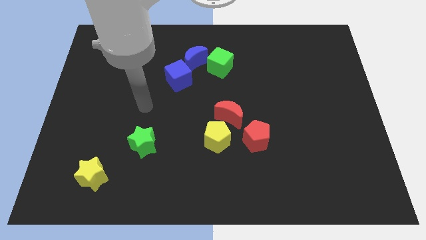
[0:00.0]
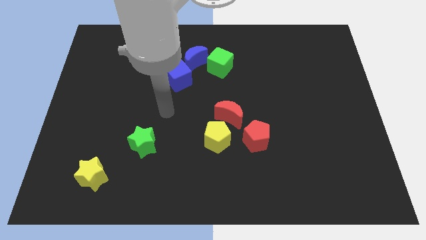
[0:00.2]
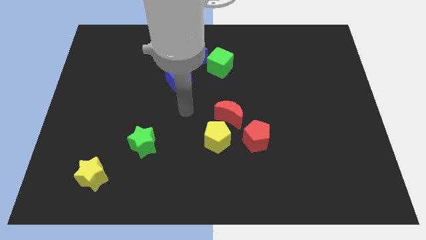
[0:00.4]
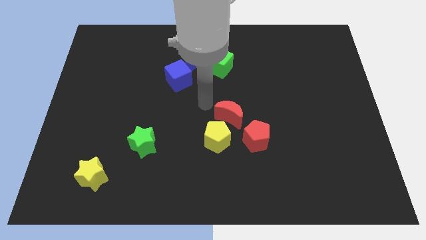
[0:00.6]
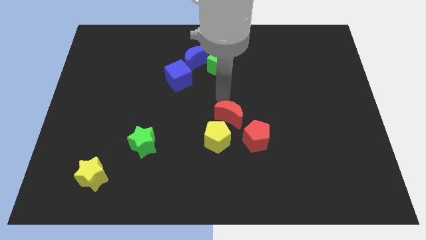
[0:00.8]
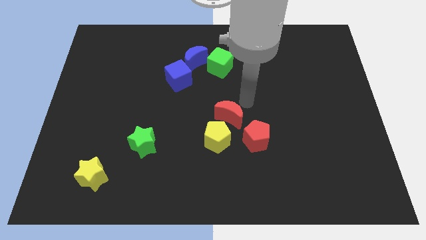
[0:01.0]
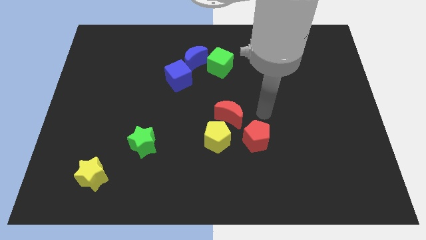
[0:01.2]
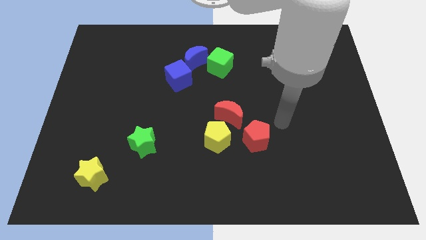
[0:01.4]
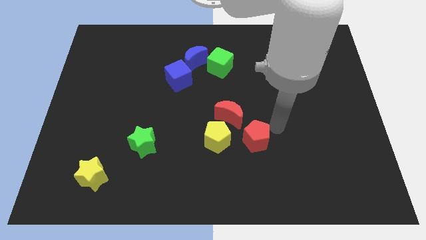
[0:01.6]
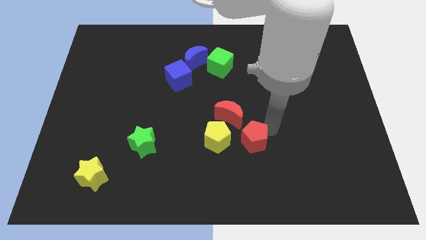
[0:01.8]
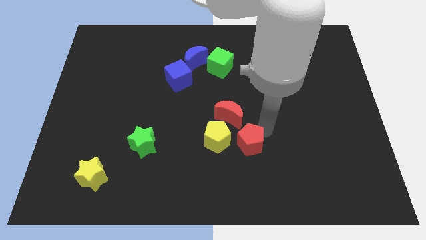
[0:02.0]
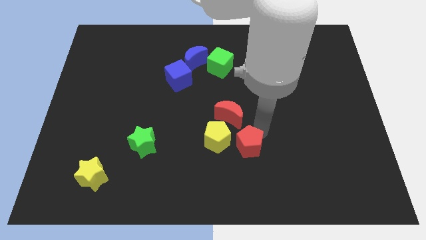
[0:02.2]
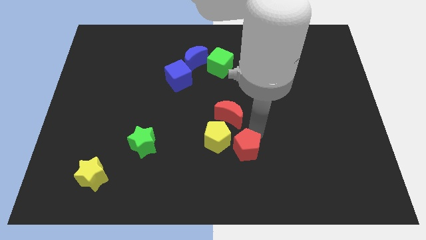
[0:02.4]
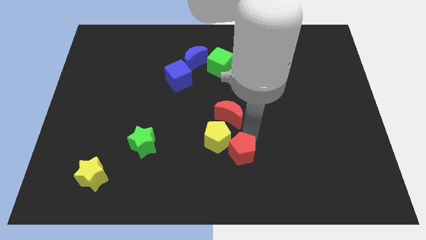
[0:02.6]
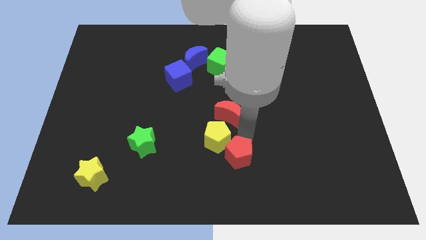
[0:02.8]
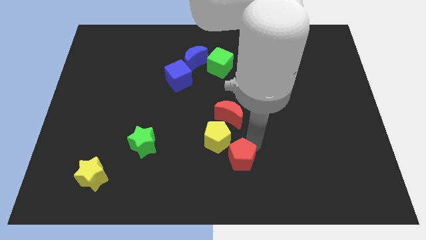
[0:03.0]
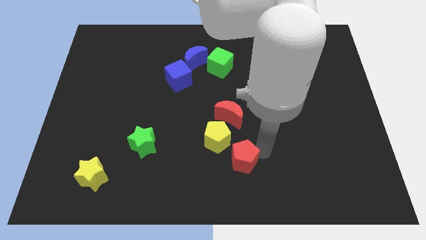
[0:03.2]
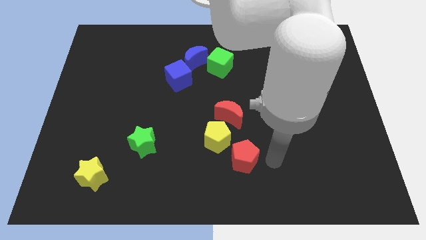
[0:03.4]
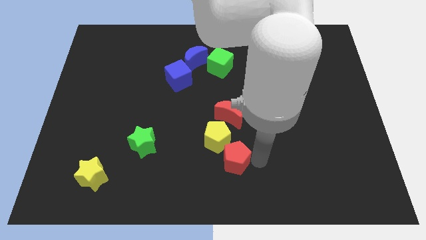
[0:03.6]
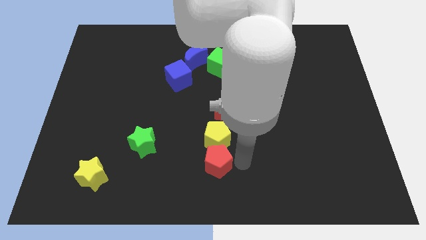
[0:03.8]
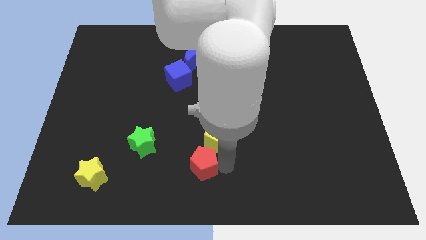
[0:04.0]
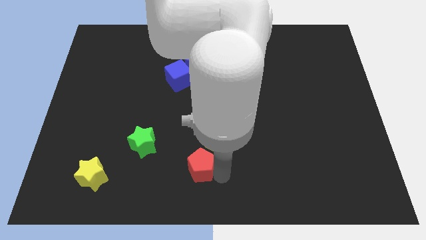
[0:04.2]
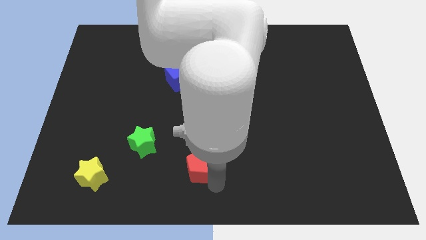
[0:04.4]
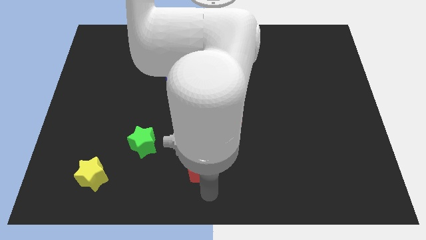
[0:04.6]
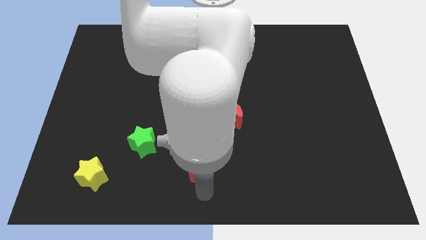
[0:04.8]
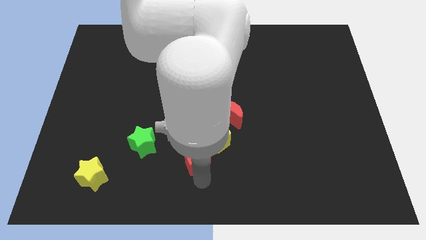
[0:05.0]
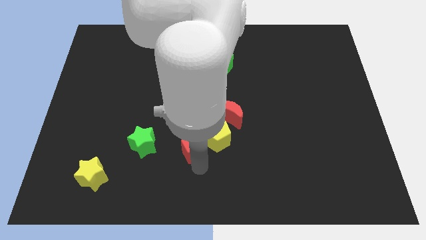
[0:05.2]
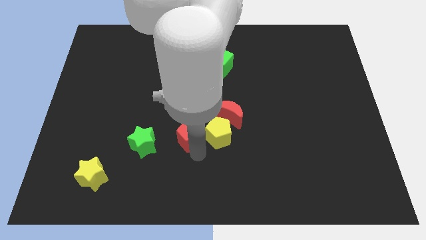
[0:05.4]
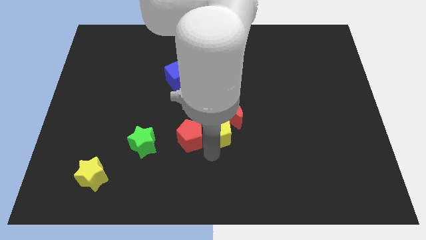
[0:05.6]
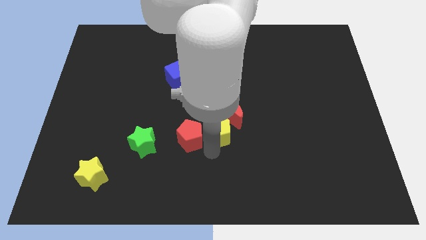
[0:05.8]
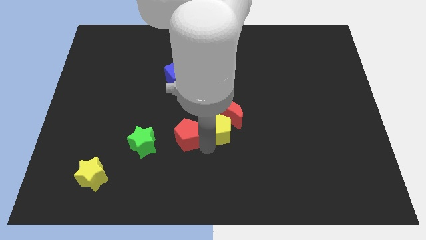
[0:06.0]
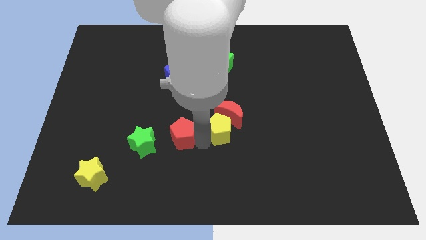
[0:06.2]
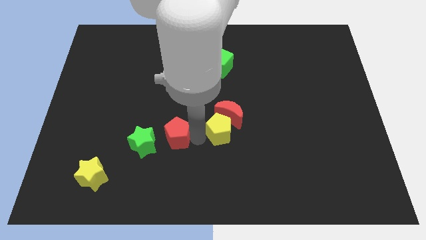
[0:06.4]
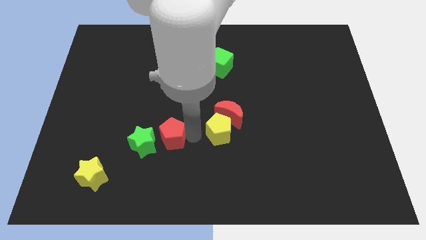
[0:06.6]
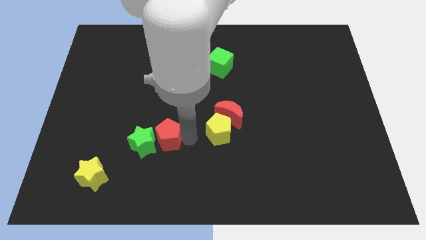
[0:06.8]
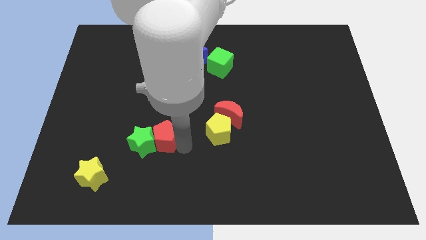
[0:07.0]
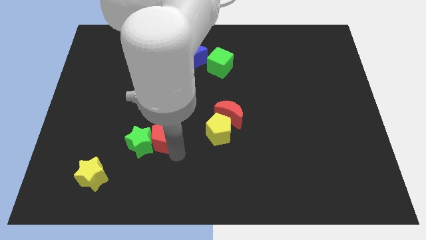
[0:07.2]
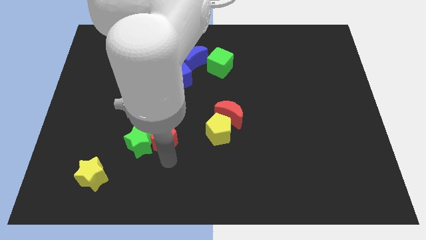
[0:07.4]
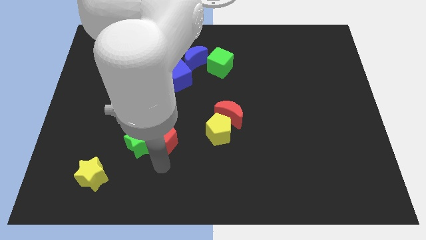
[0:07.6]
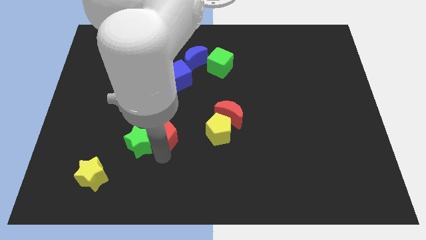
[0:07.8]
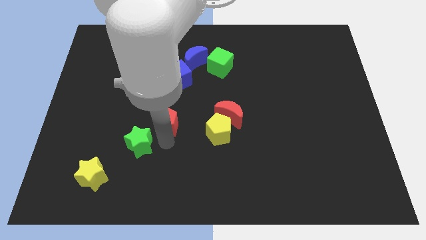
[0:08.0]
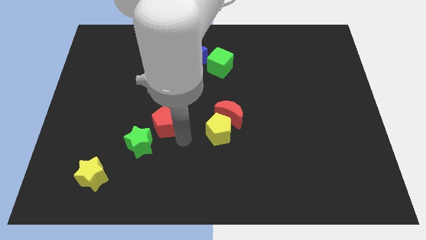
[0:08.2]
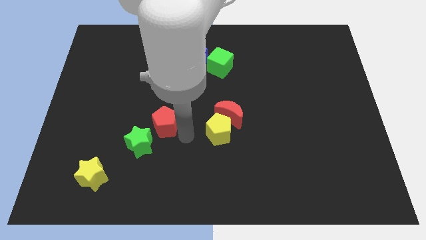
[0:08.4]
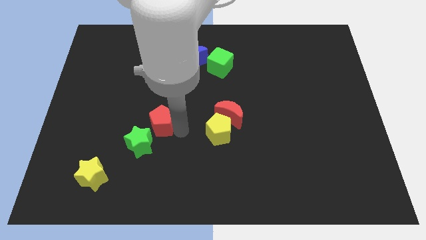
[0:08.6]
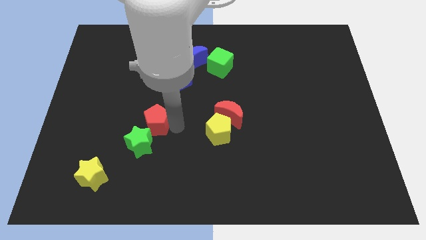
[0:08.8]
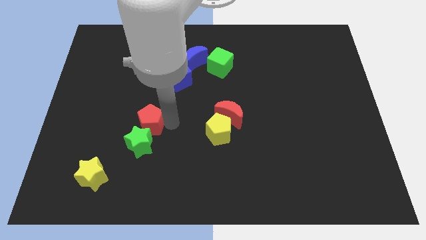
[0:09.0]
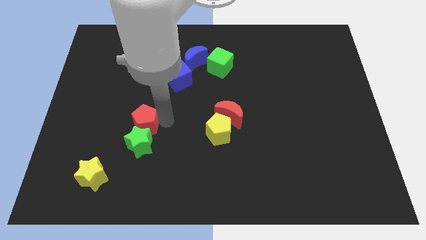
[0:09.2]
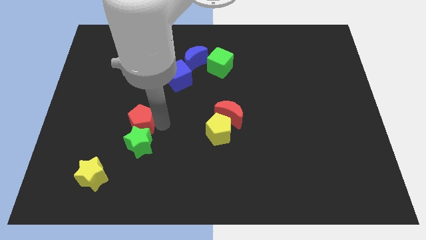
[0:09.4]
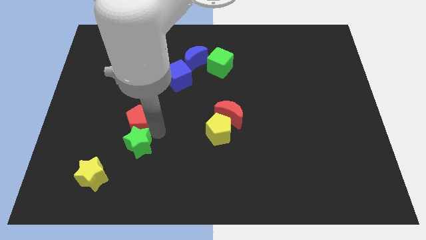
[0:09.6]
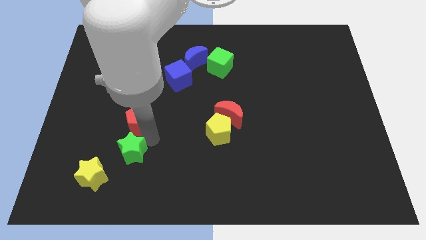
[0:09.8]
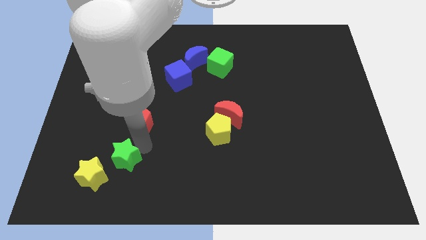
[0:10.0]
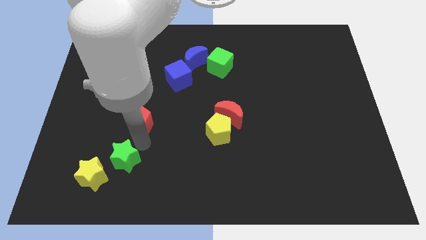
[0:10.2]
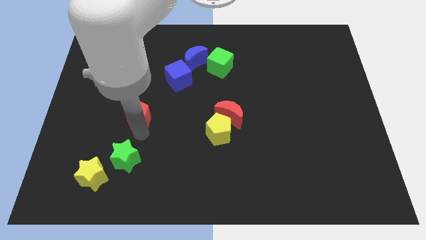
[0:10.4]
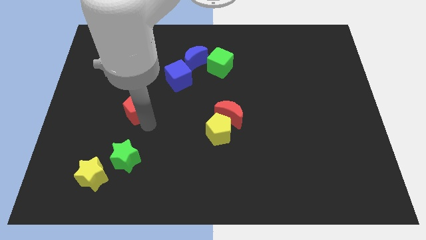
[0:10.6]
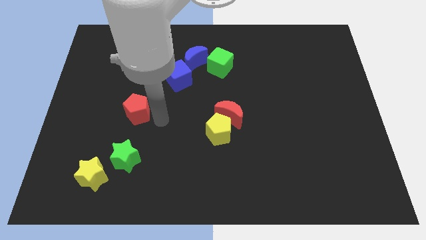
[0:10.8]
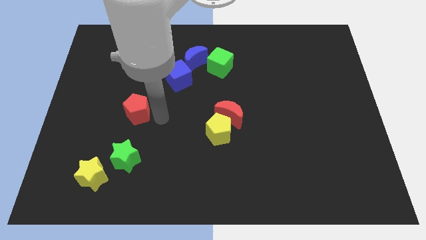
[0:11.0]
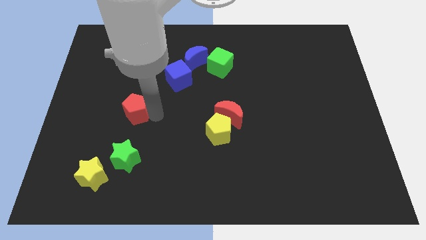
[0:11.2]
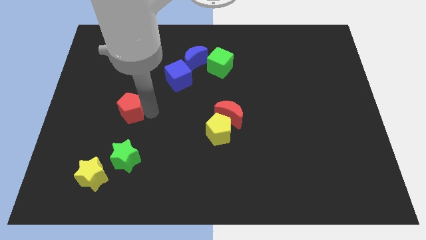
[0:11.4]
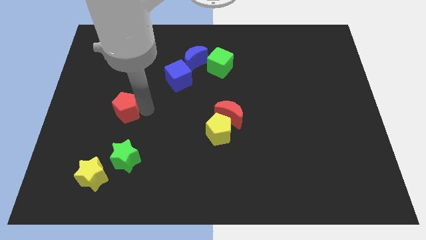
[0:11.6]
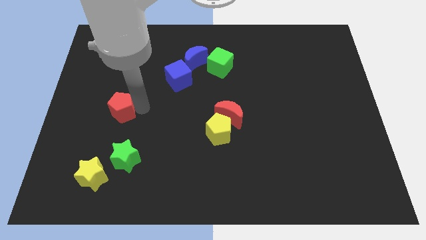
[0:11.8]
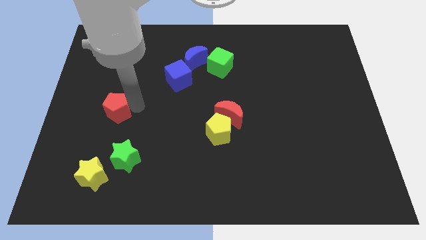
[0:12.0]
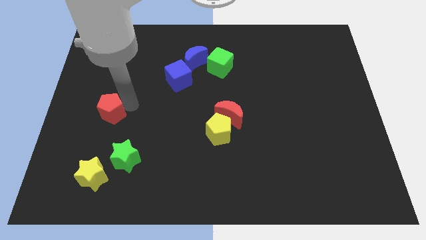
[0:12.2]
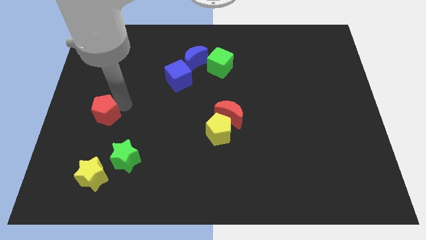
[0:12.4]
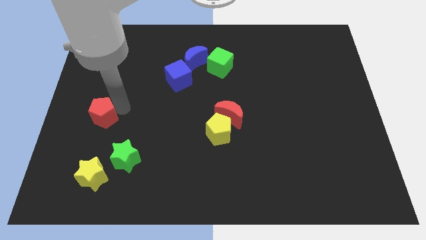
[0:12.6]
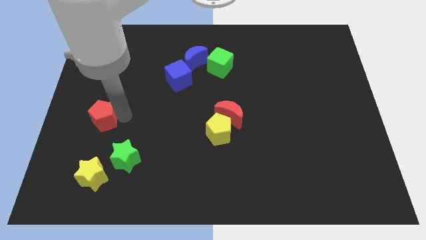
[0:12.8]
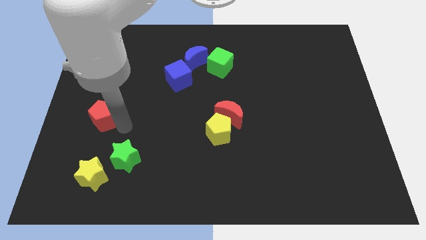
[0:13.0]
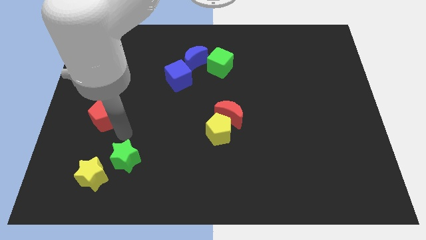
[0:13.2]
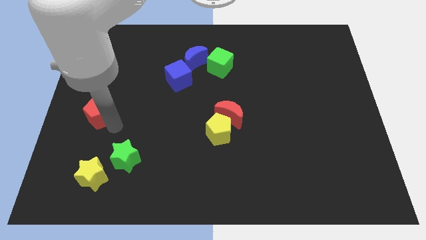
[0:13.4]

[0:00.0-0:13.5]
push the red pentagon to the left side of the board

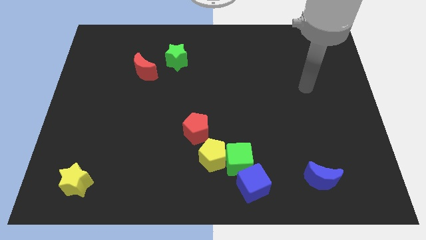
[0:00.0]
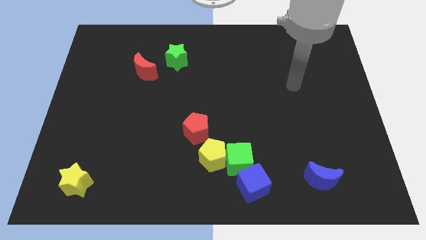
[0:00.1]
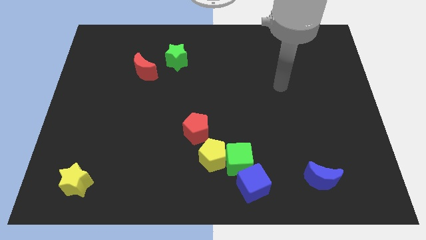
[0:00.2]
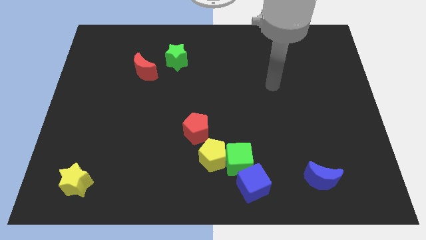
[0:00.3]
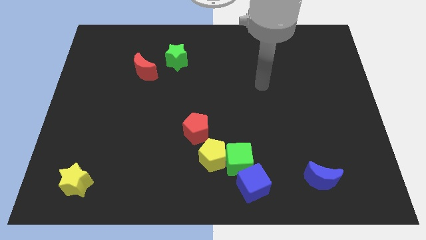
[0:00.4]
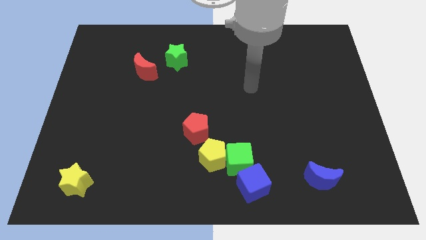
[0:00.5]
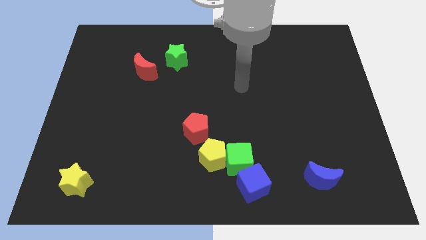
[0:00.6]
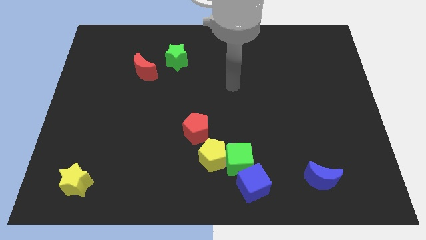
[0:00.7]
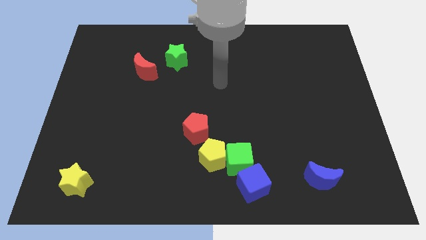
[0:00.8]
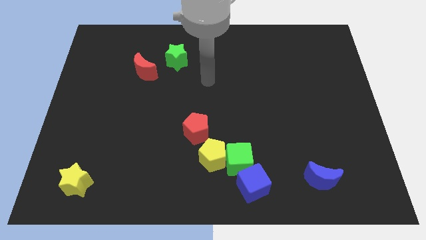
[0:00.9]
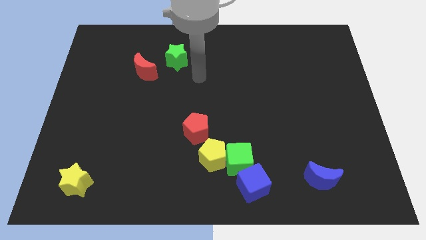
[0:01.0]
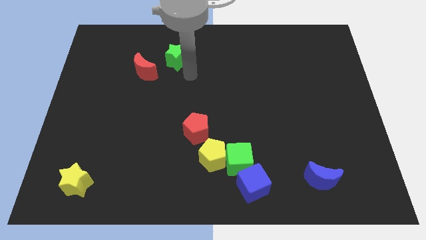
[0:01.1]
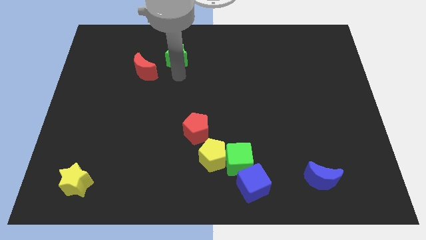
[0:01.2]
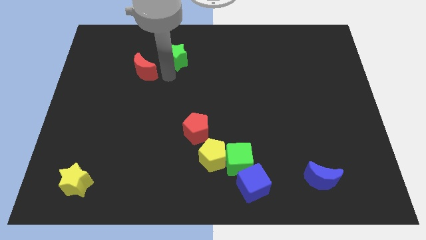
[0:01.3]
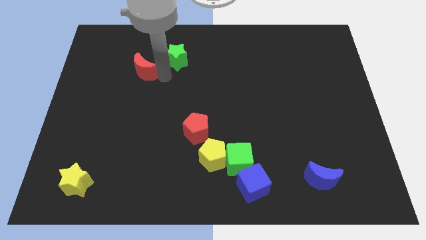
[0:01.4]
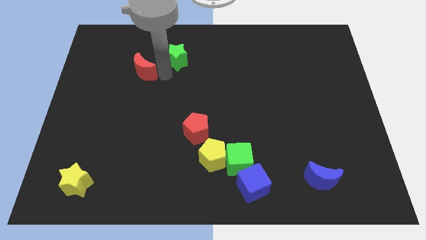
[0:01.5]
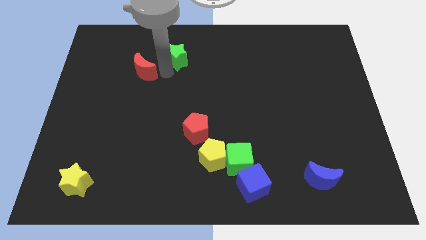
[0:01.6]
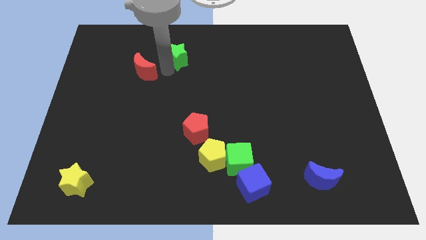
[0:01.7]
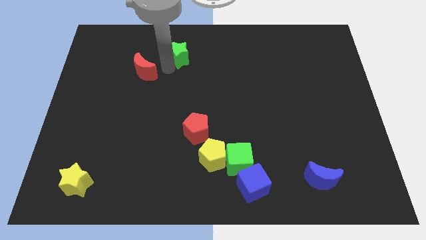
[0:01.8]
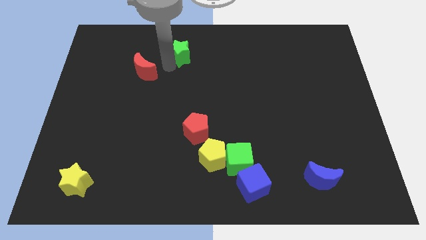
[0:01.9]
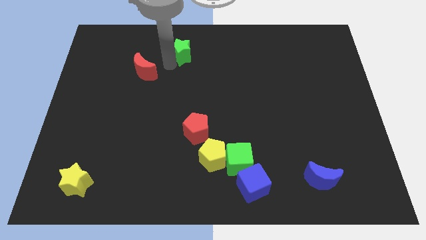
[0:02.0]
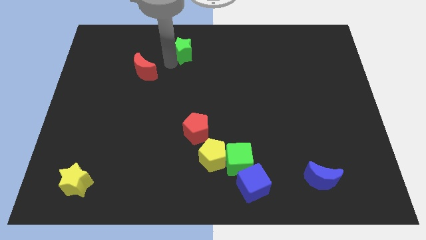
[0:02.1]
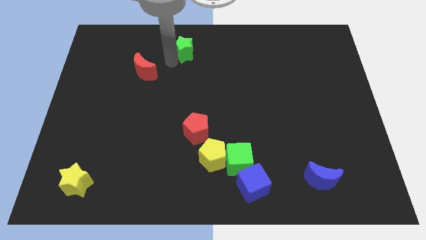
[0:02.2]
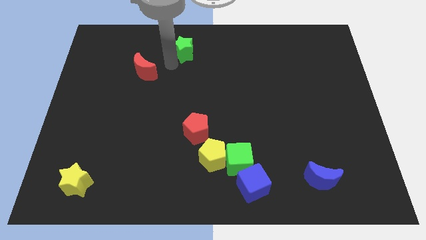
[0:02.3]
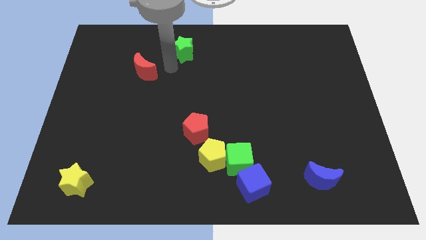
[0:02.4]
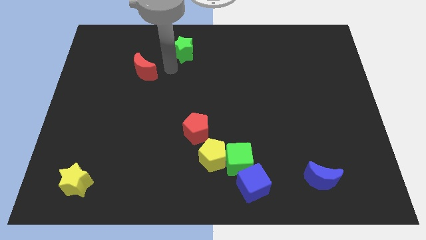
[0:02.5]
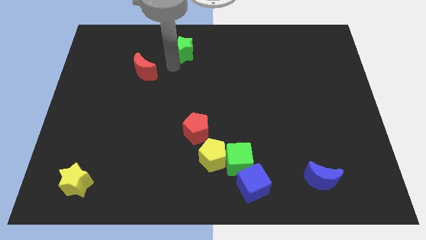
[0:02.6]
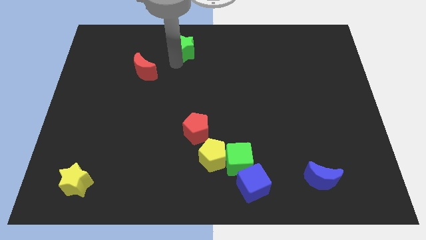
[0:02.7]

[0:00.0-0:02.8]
push the green star to the top side
